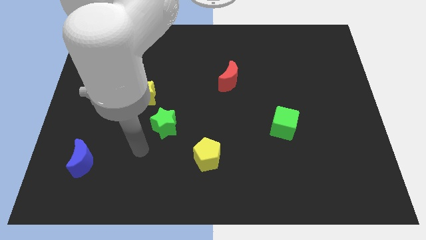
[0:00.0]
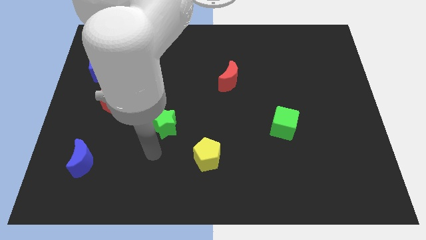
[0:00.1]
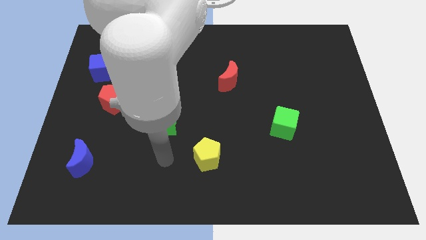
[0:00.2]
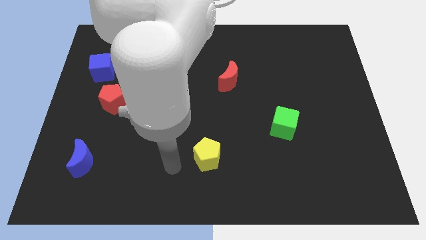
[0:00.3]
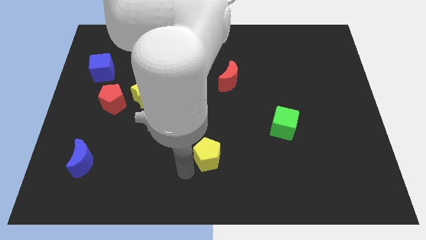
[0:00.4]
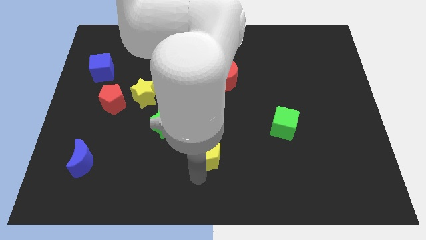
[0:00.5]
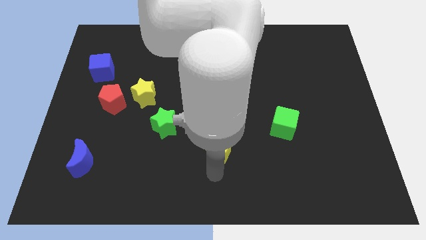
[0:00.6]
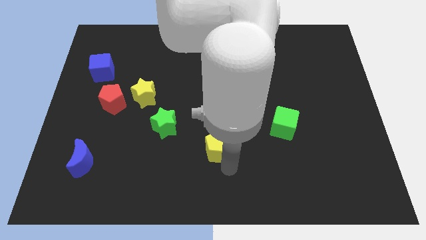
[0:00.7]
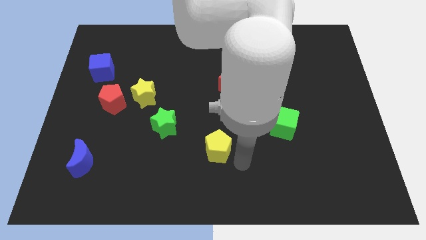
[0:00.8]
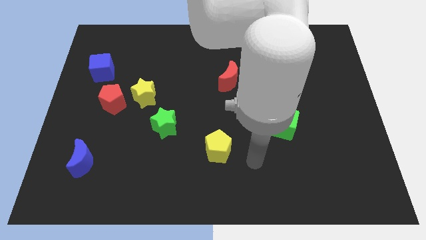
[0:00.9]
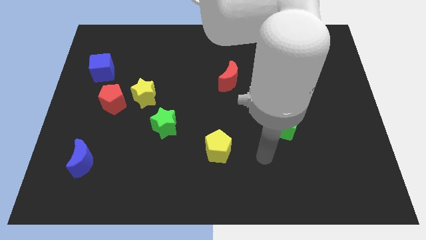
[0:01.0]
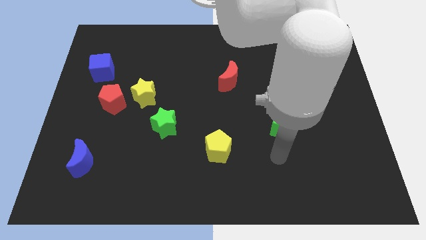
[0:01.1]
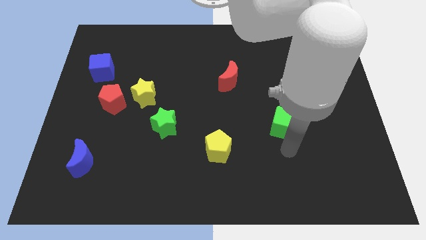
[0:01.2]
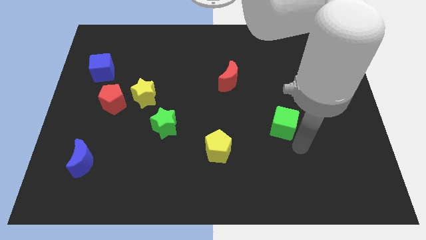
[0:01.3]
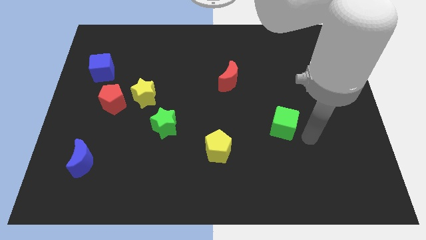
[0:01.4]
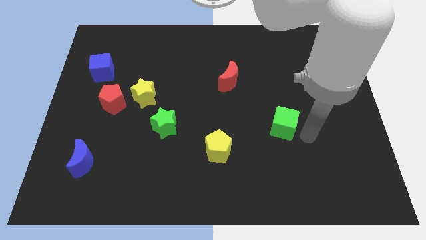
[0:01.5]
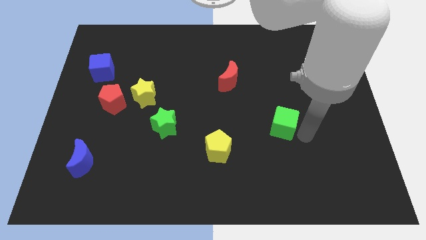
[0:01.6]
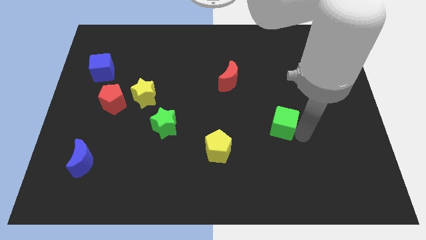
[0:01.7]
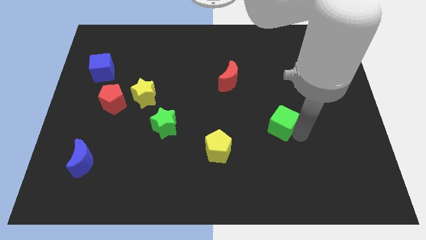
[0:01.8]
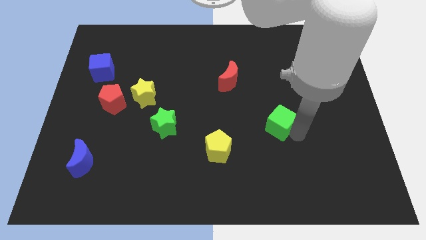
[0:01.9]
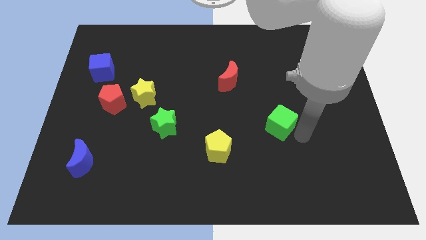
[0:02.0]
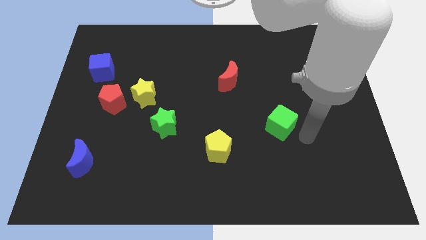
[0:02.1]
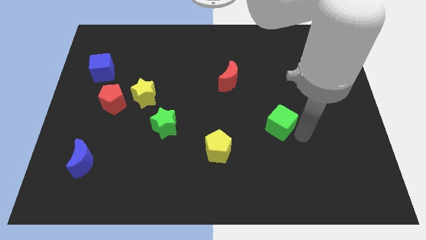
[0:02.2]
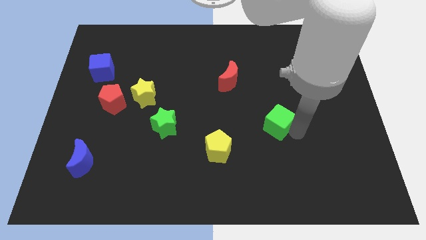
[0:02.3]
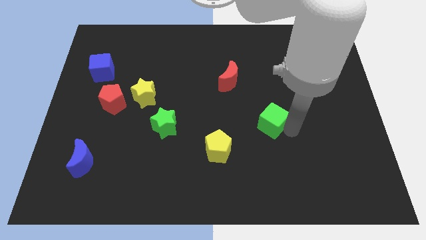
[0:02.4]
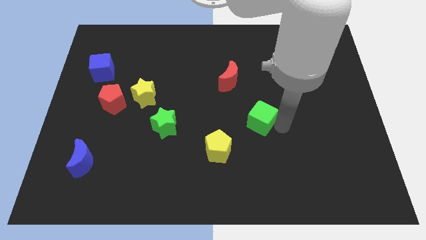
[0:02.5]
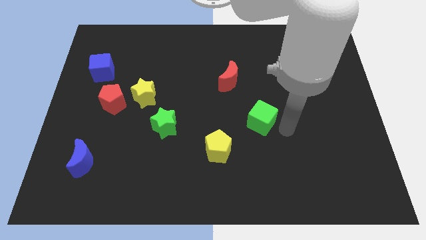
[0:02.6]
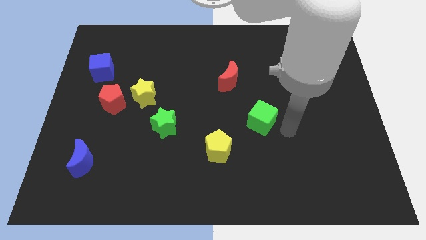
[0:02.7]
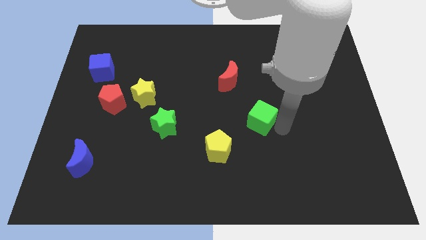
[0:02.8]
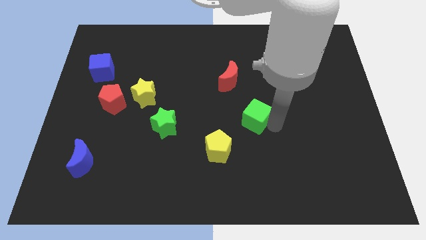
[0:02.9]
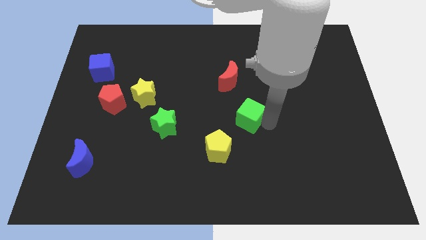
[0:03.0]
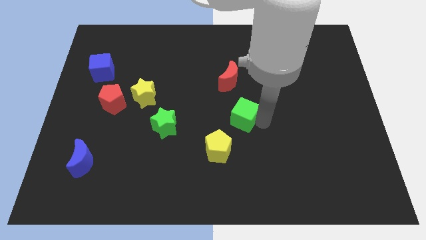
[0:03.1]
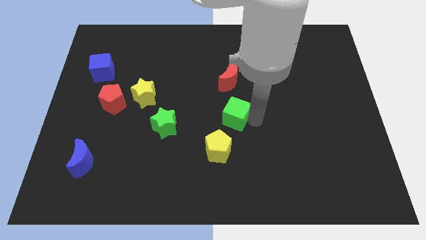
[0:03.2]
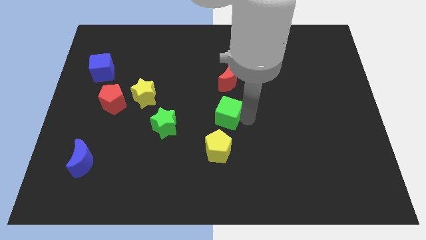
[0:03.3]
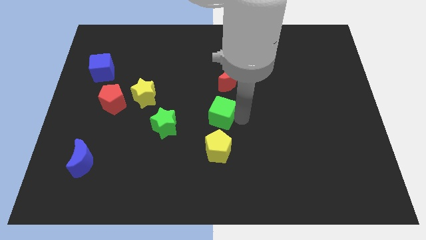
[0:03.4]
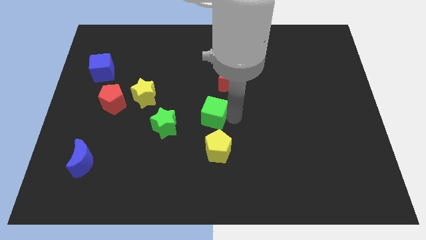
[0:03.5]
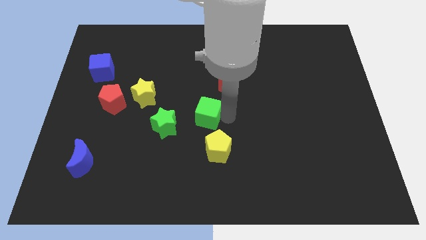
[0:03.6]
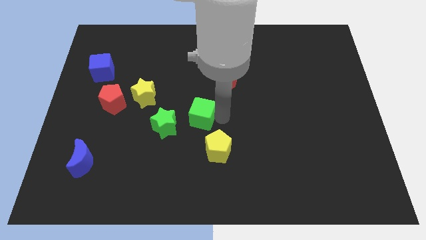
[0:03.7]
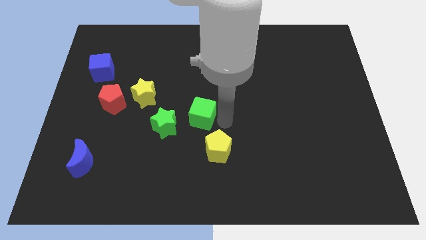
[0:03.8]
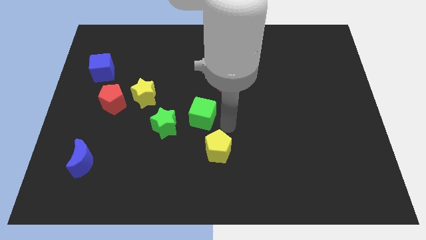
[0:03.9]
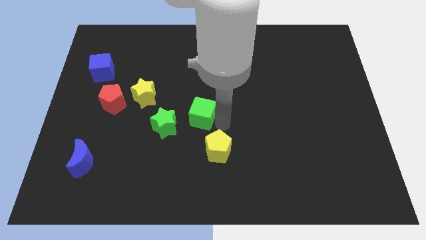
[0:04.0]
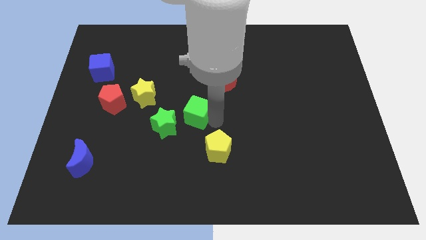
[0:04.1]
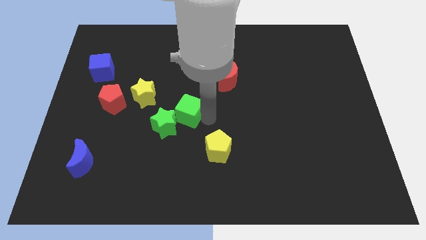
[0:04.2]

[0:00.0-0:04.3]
push the green cube to the left

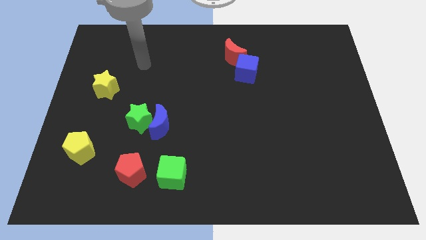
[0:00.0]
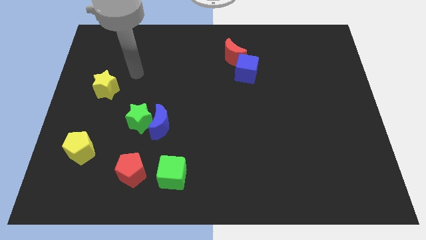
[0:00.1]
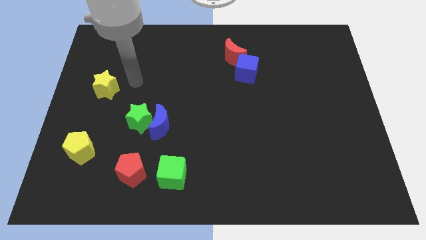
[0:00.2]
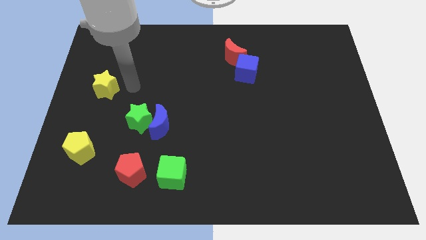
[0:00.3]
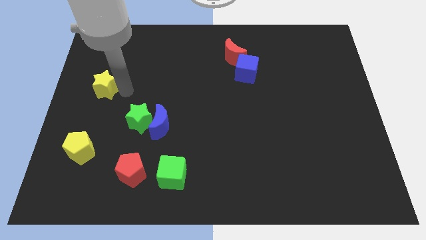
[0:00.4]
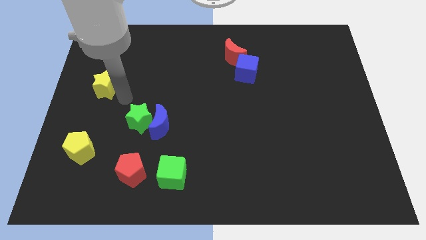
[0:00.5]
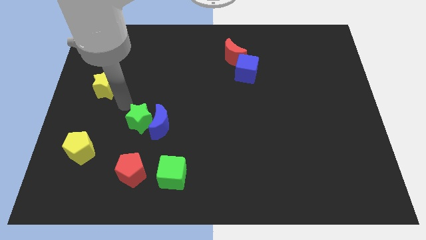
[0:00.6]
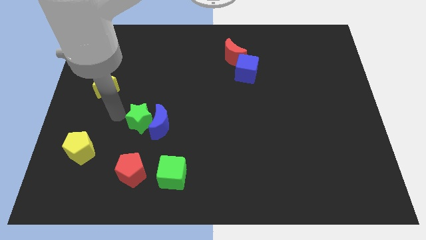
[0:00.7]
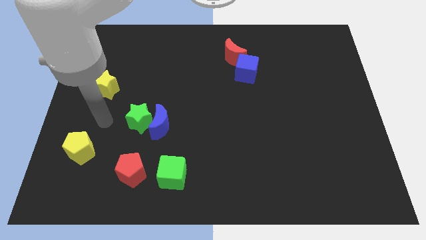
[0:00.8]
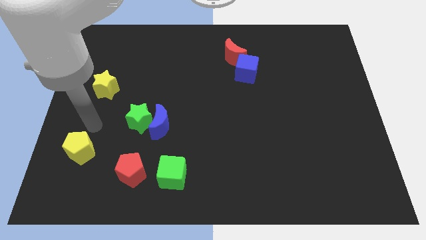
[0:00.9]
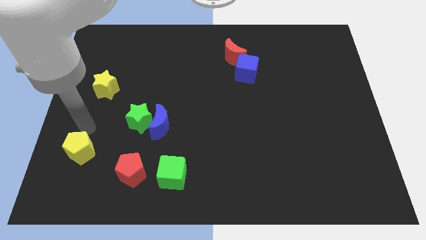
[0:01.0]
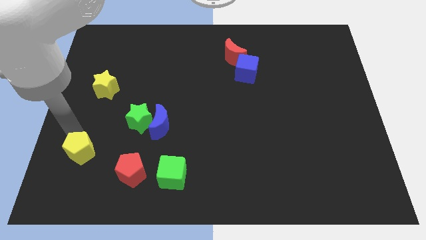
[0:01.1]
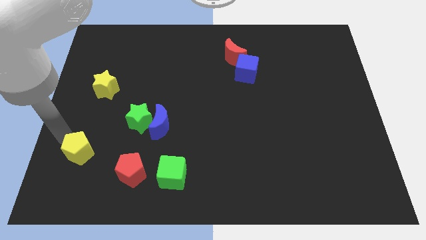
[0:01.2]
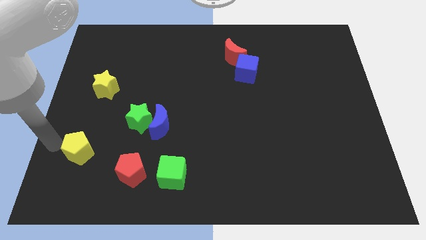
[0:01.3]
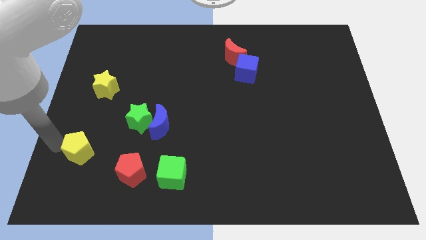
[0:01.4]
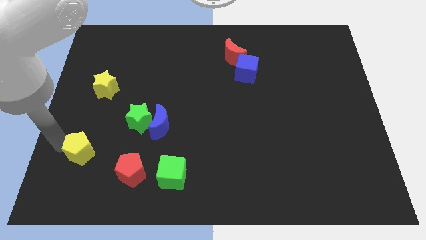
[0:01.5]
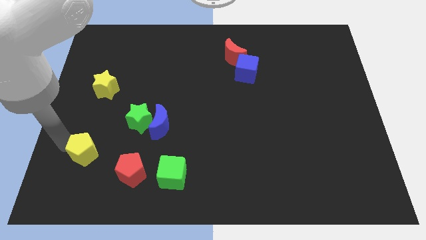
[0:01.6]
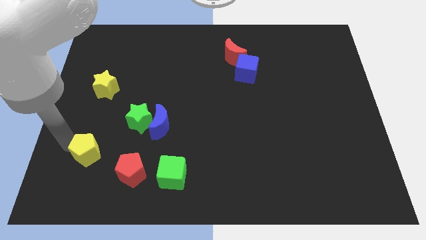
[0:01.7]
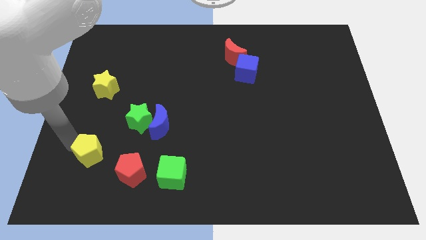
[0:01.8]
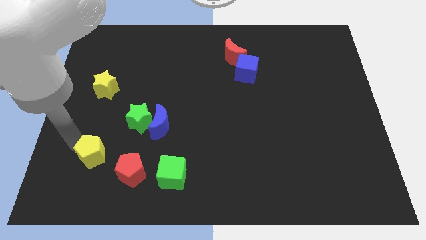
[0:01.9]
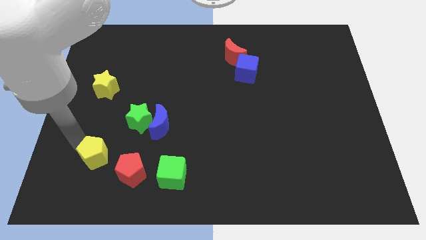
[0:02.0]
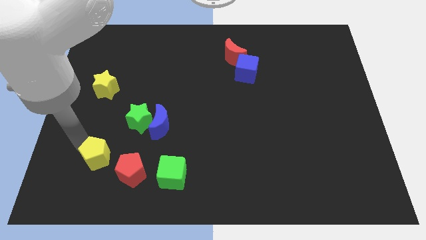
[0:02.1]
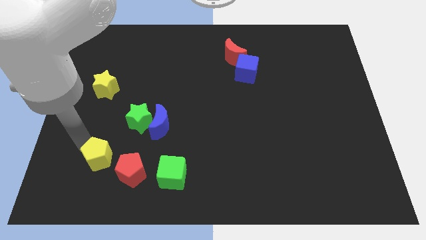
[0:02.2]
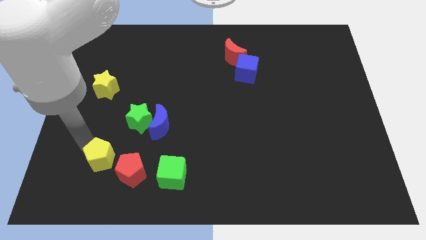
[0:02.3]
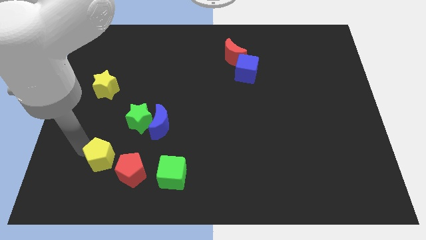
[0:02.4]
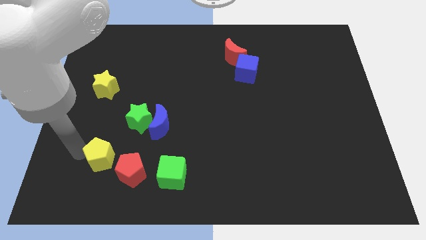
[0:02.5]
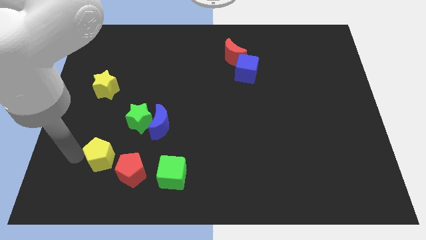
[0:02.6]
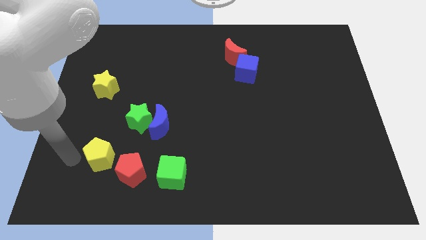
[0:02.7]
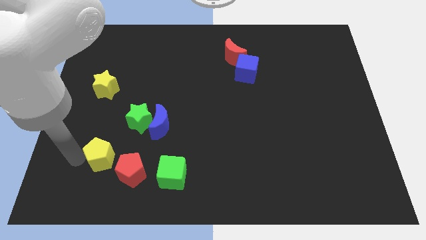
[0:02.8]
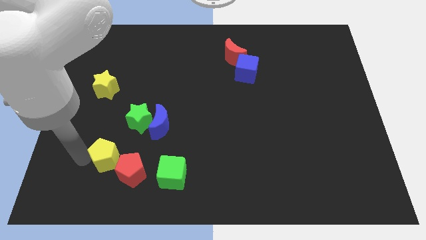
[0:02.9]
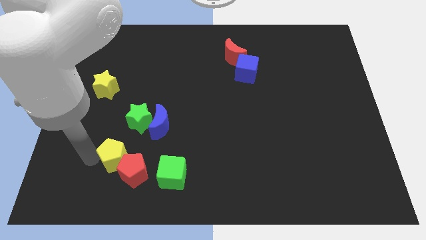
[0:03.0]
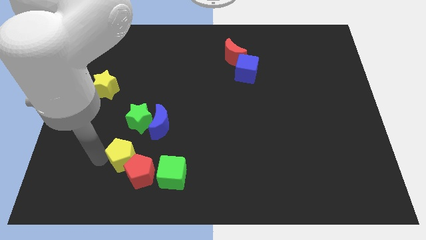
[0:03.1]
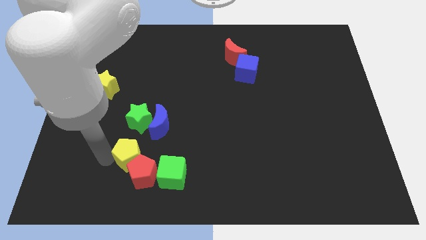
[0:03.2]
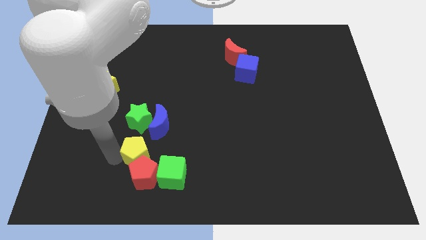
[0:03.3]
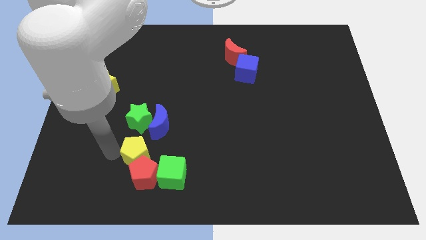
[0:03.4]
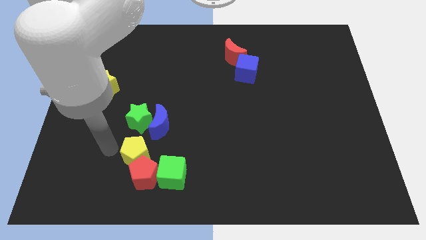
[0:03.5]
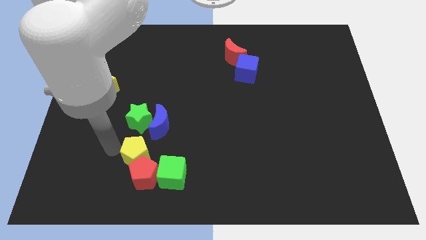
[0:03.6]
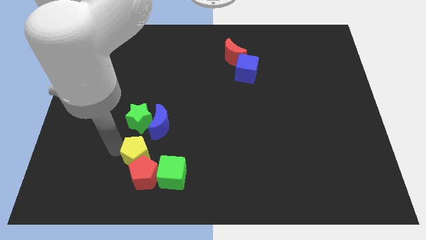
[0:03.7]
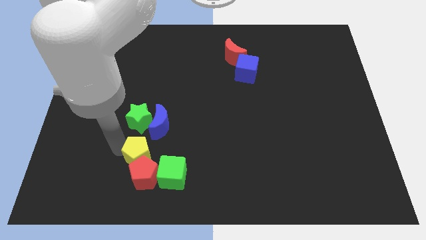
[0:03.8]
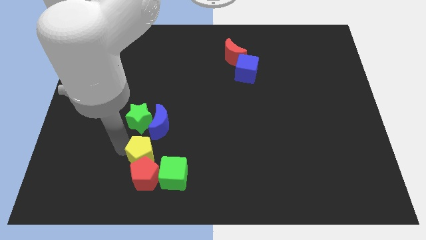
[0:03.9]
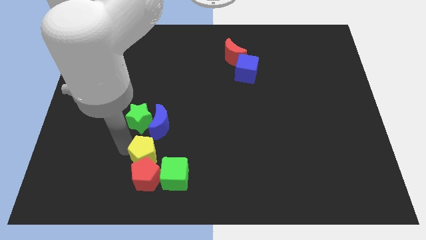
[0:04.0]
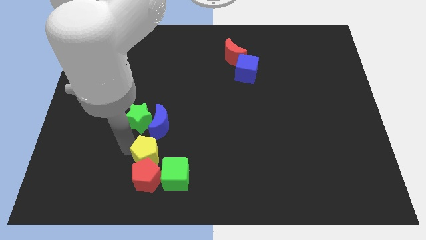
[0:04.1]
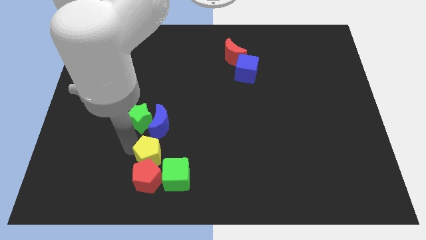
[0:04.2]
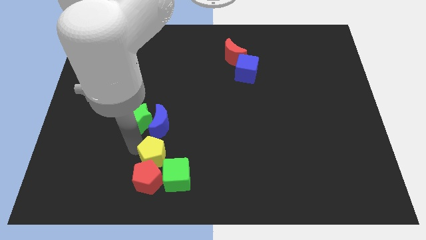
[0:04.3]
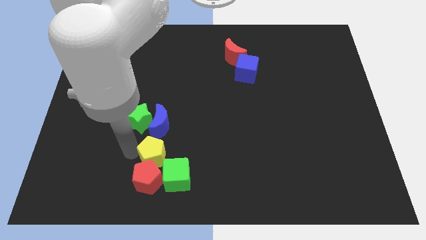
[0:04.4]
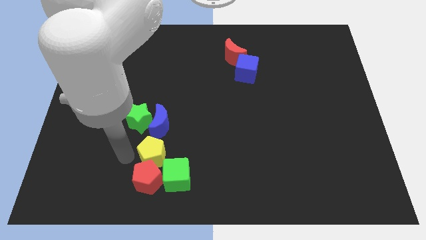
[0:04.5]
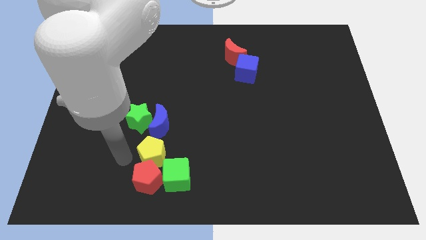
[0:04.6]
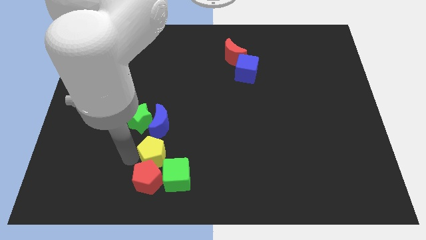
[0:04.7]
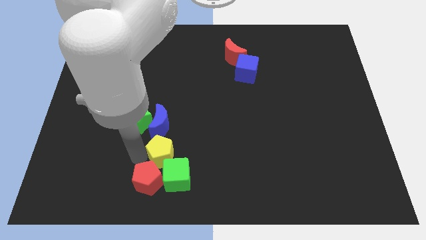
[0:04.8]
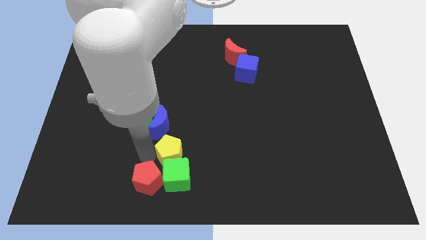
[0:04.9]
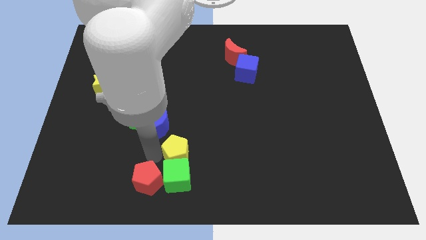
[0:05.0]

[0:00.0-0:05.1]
move the yellow pentagon to the right
